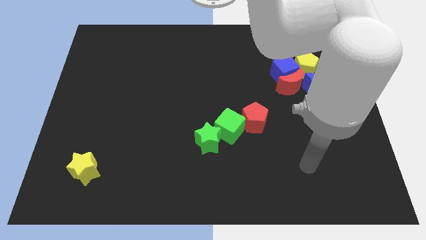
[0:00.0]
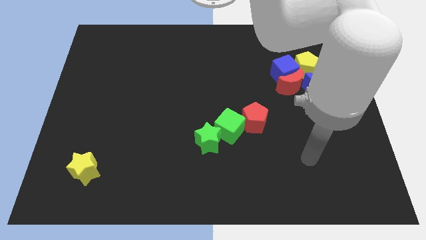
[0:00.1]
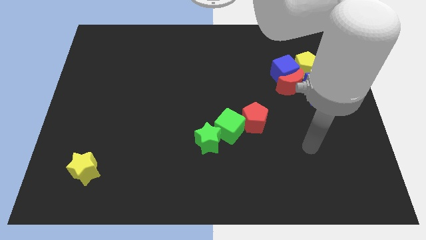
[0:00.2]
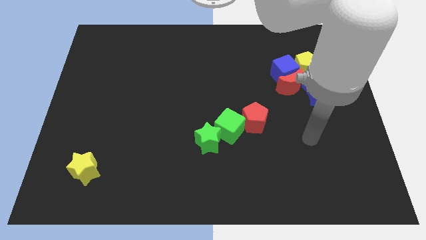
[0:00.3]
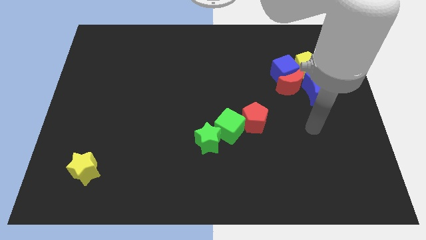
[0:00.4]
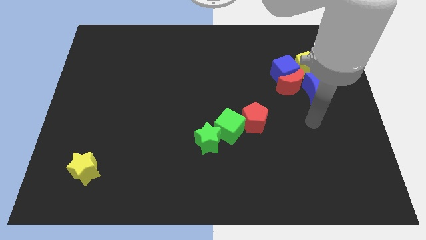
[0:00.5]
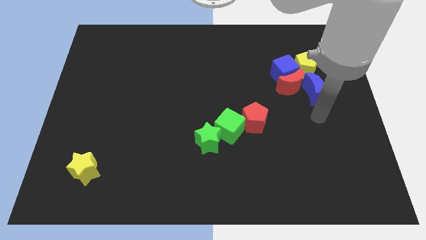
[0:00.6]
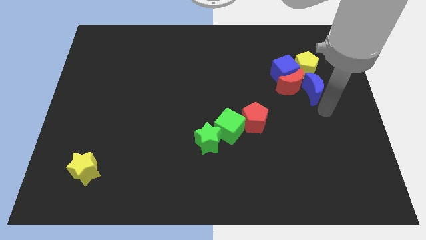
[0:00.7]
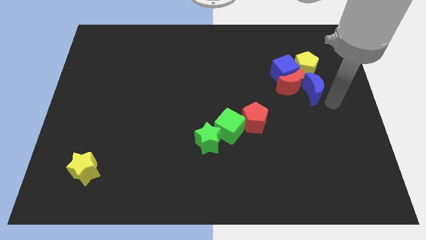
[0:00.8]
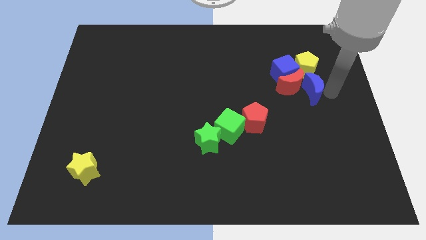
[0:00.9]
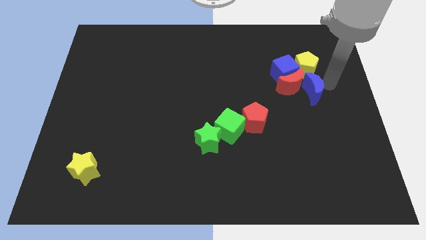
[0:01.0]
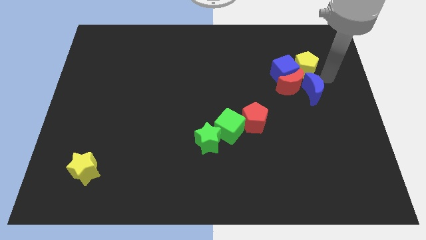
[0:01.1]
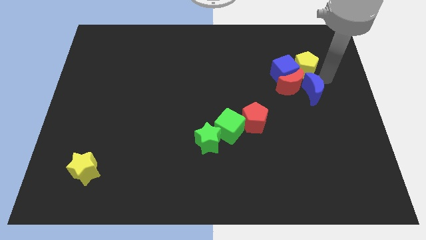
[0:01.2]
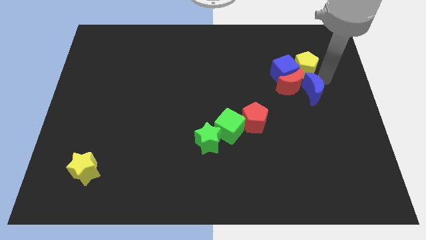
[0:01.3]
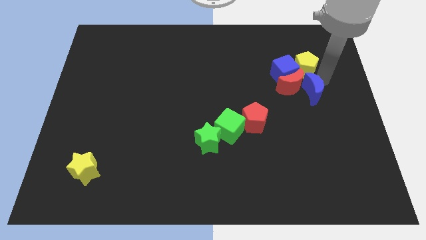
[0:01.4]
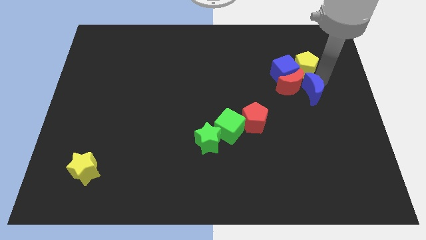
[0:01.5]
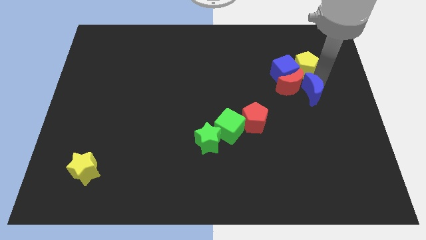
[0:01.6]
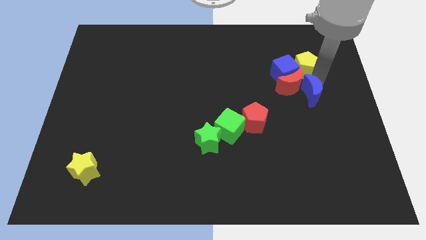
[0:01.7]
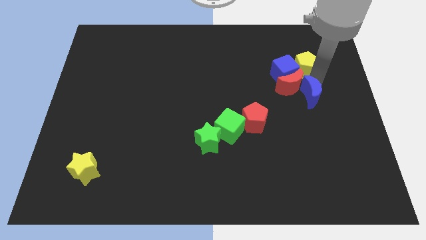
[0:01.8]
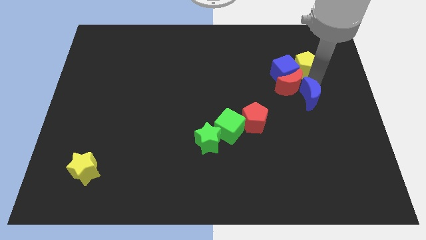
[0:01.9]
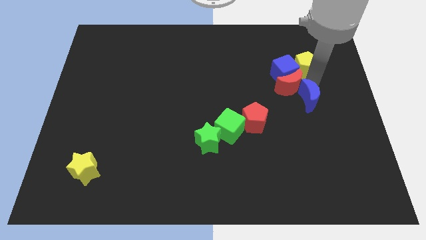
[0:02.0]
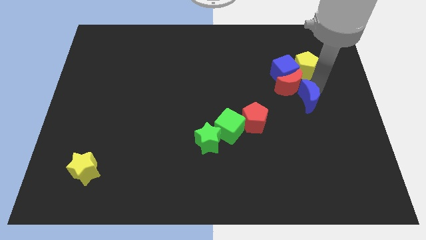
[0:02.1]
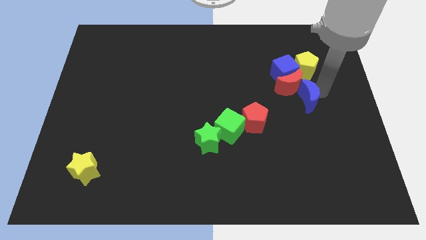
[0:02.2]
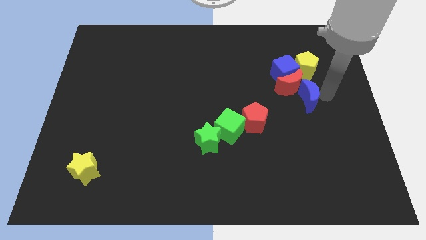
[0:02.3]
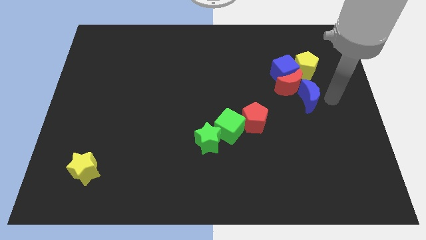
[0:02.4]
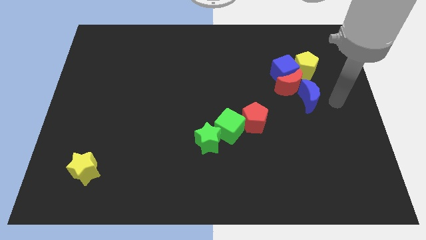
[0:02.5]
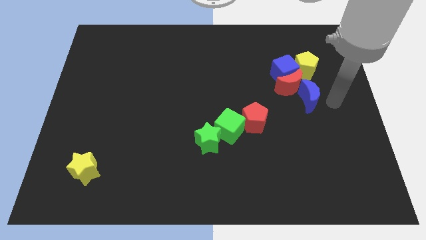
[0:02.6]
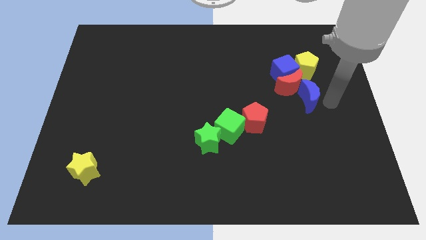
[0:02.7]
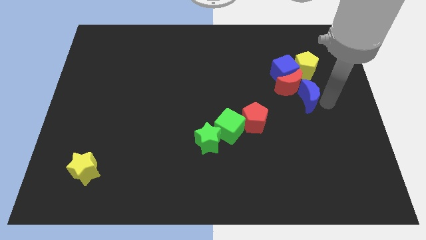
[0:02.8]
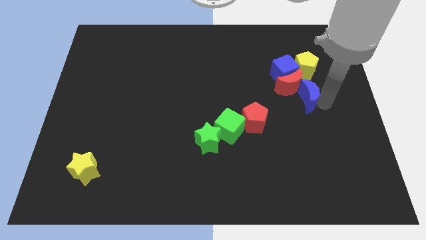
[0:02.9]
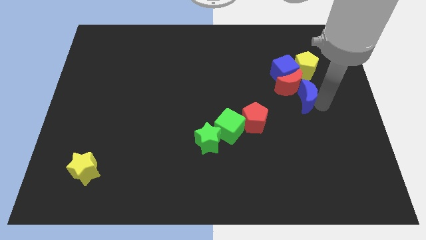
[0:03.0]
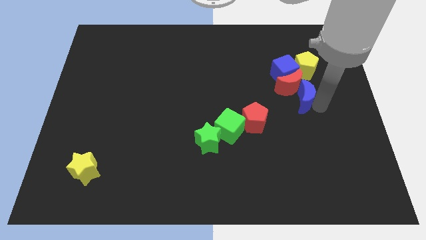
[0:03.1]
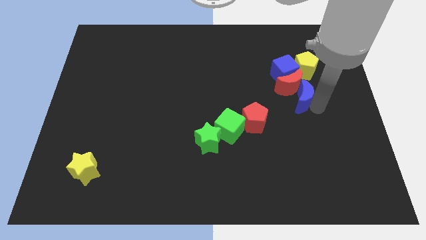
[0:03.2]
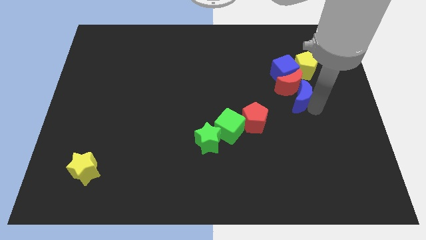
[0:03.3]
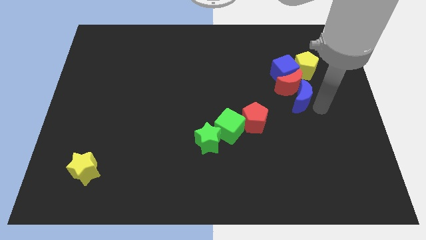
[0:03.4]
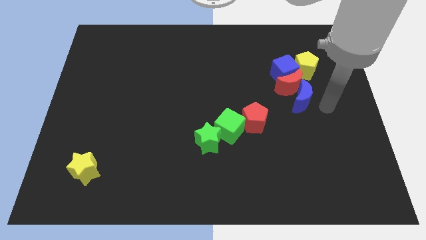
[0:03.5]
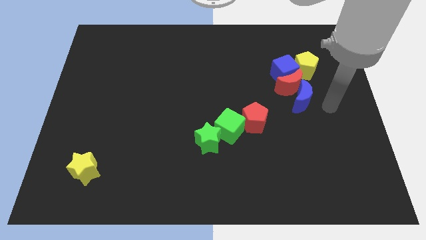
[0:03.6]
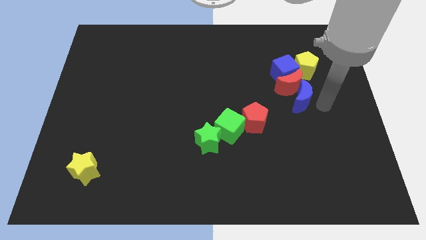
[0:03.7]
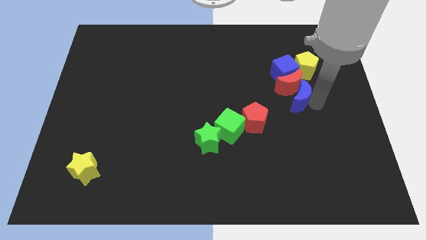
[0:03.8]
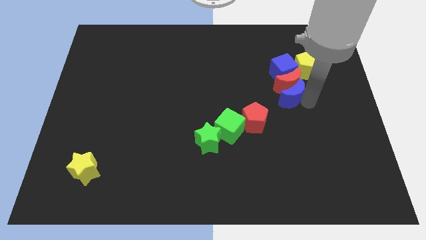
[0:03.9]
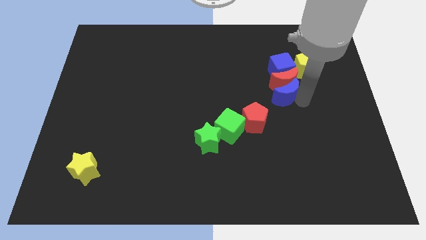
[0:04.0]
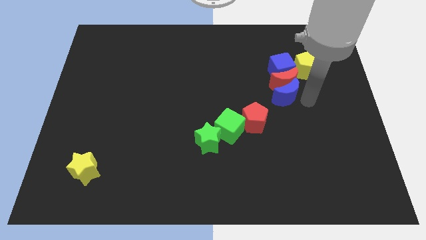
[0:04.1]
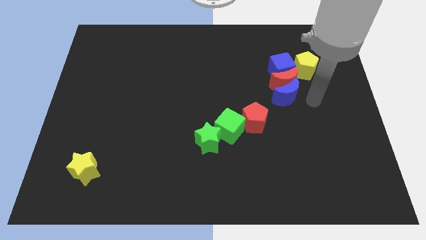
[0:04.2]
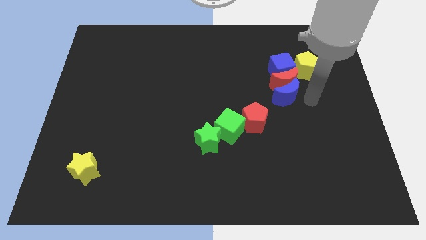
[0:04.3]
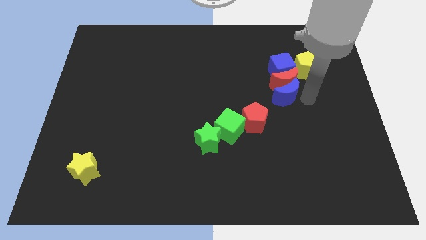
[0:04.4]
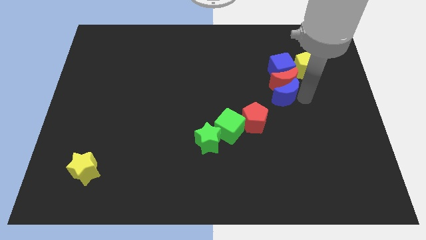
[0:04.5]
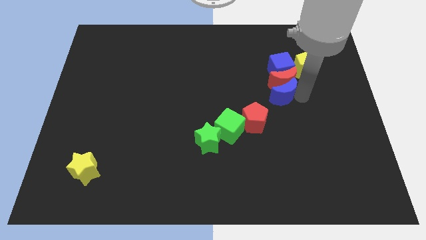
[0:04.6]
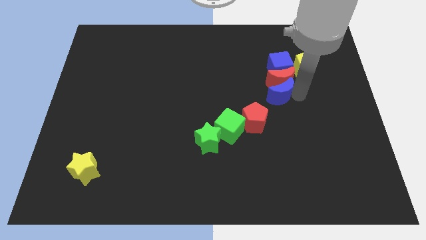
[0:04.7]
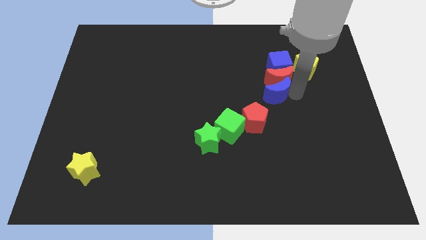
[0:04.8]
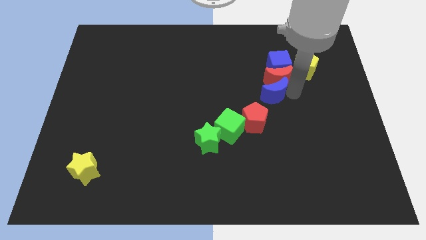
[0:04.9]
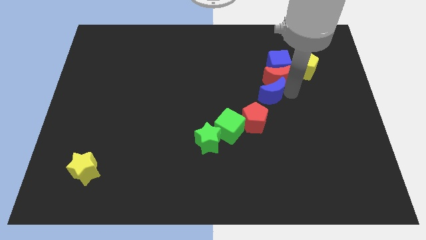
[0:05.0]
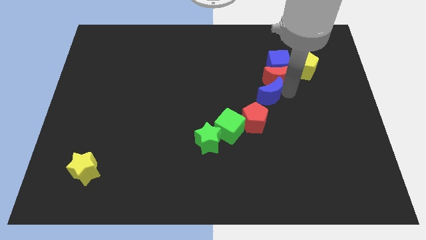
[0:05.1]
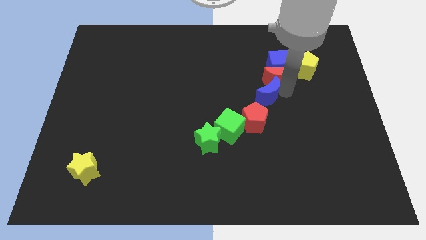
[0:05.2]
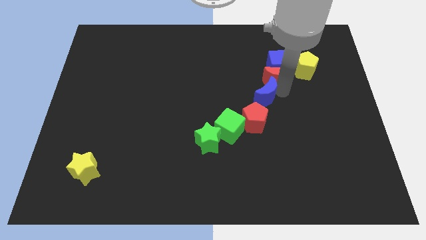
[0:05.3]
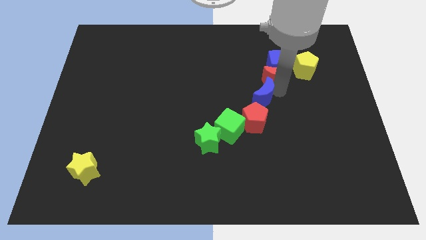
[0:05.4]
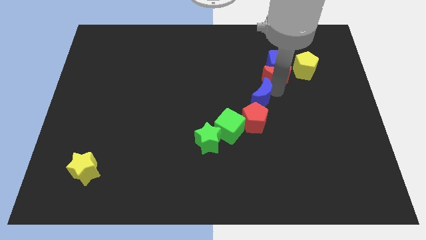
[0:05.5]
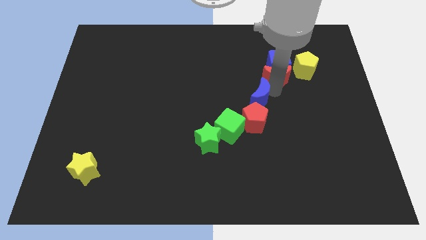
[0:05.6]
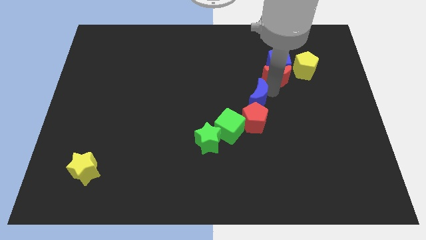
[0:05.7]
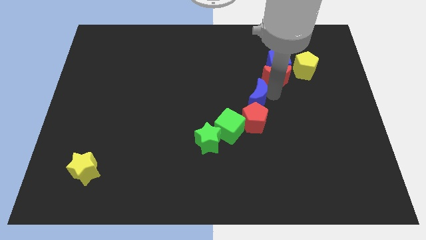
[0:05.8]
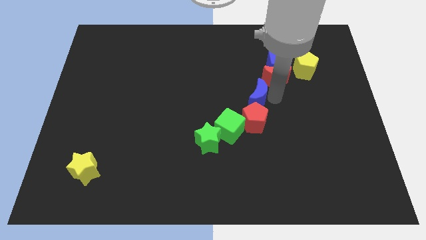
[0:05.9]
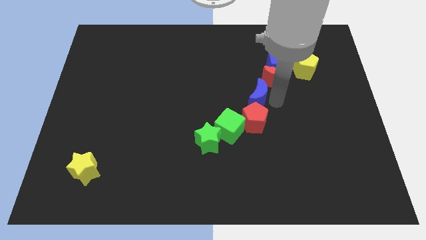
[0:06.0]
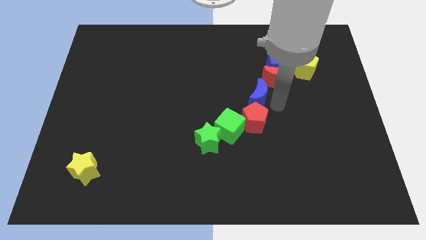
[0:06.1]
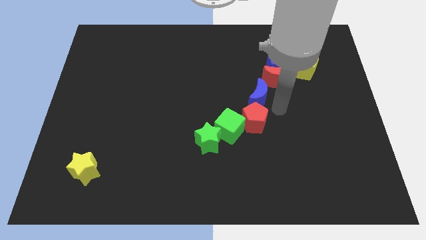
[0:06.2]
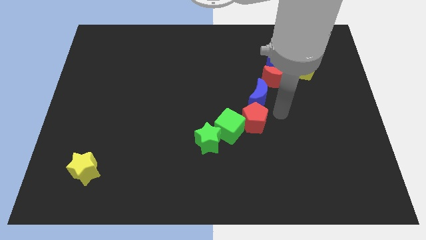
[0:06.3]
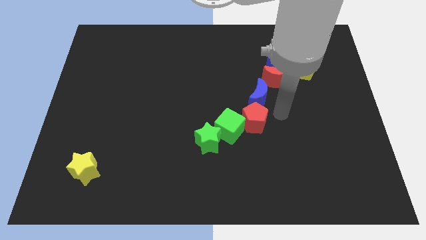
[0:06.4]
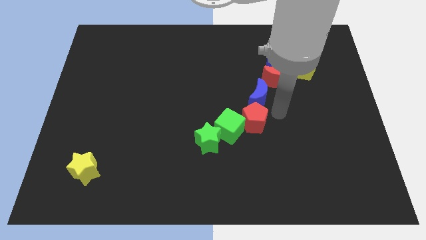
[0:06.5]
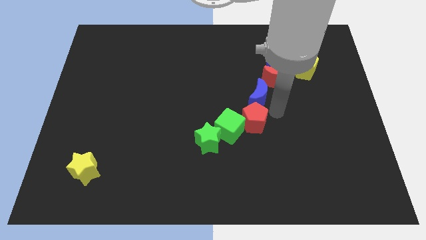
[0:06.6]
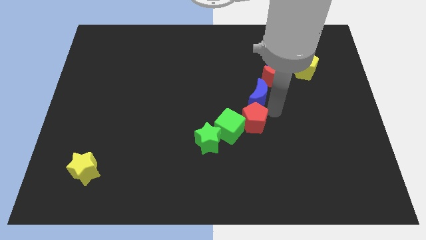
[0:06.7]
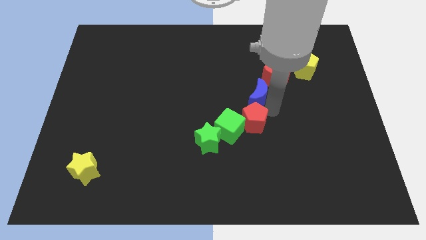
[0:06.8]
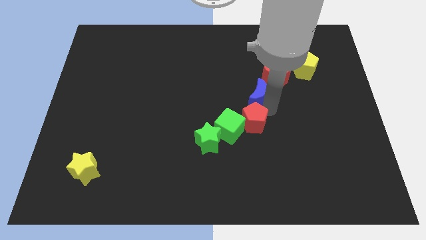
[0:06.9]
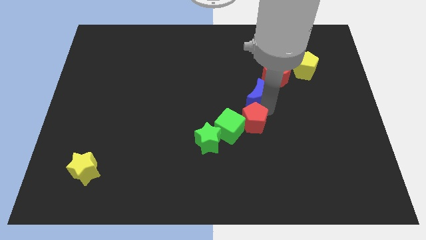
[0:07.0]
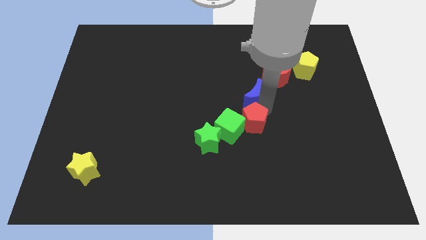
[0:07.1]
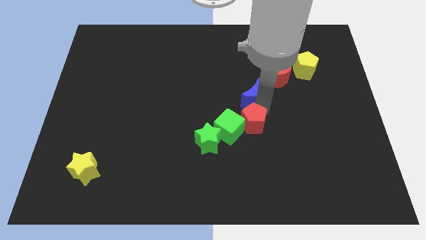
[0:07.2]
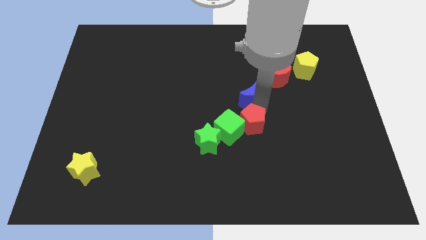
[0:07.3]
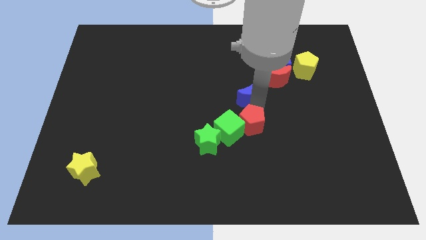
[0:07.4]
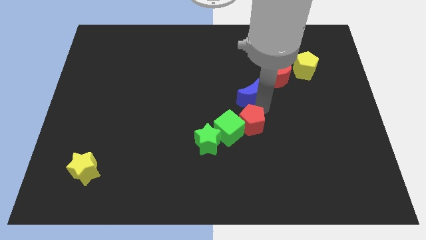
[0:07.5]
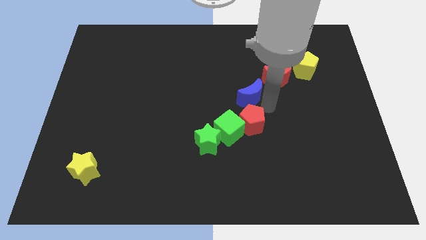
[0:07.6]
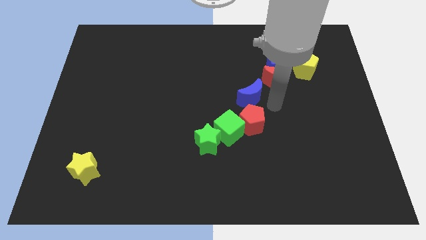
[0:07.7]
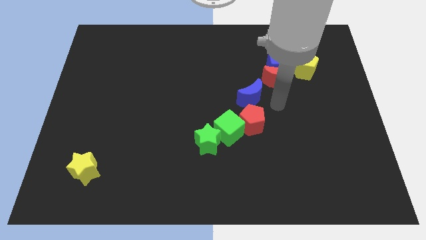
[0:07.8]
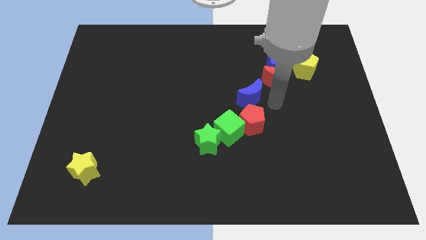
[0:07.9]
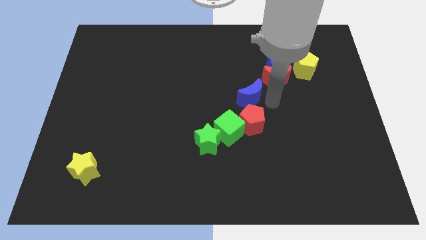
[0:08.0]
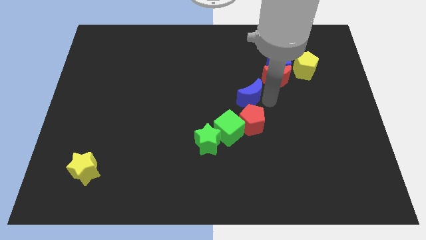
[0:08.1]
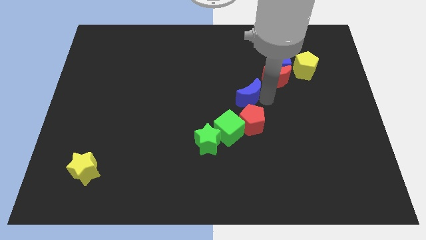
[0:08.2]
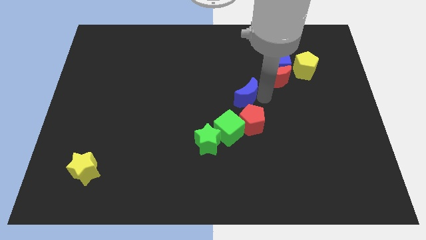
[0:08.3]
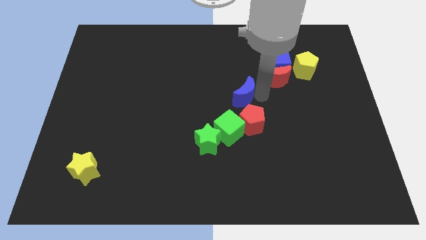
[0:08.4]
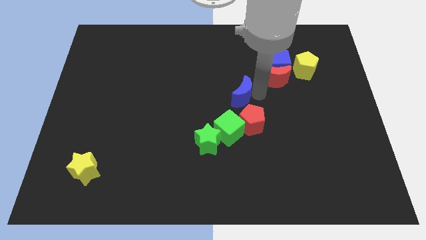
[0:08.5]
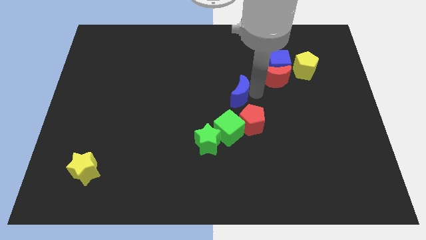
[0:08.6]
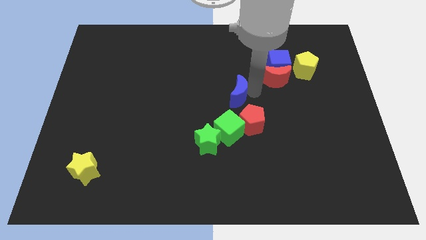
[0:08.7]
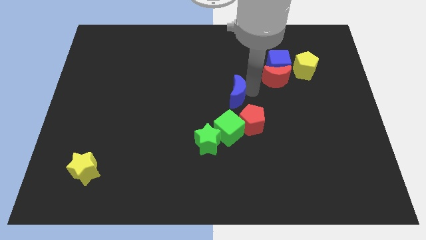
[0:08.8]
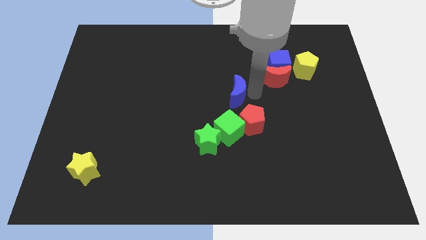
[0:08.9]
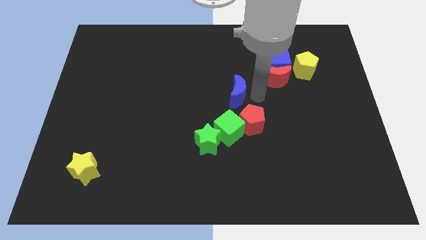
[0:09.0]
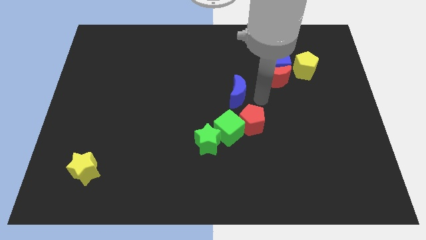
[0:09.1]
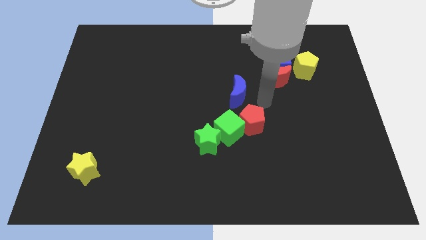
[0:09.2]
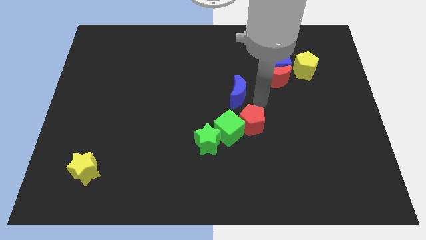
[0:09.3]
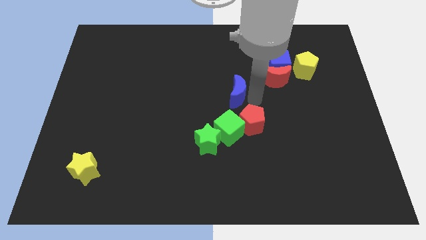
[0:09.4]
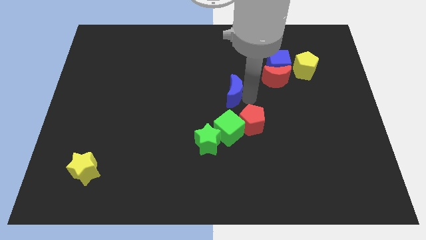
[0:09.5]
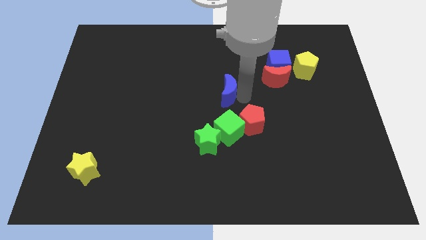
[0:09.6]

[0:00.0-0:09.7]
slide the blue moon left
